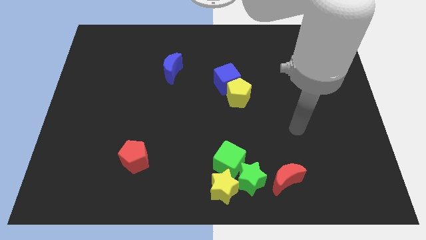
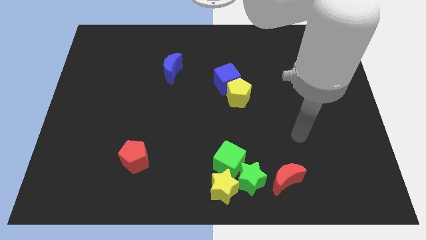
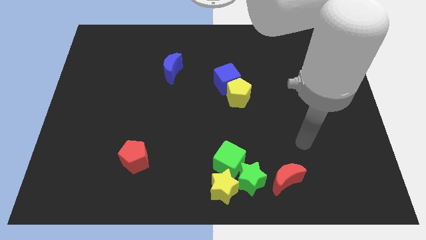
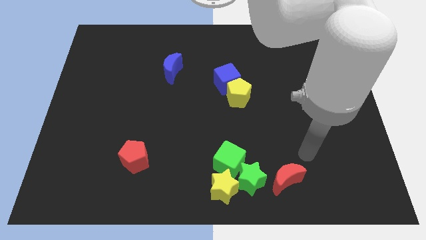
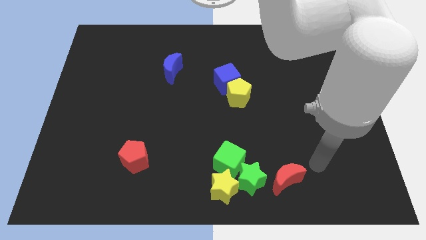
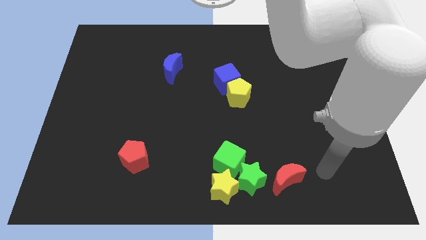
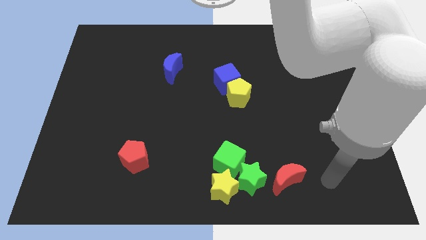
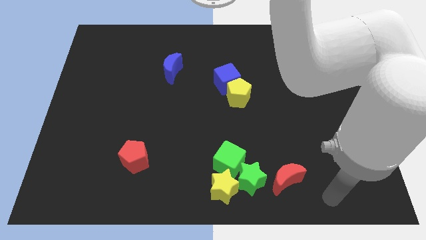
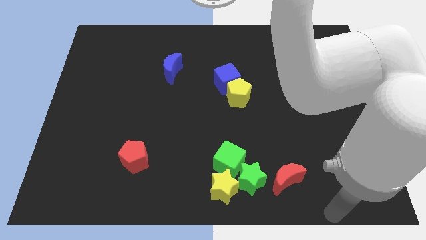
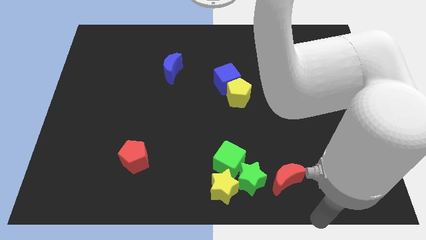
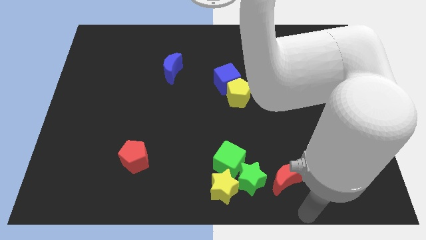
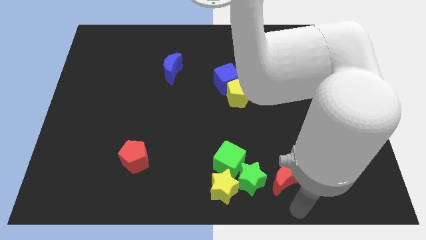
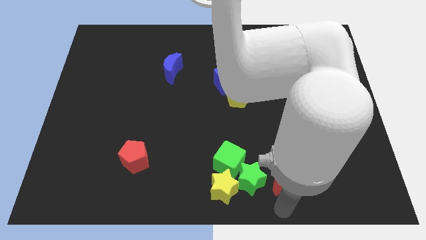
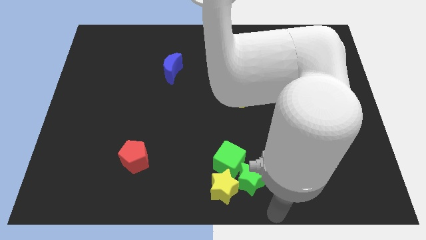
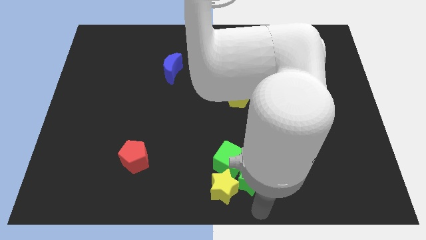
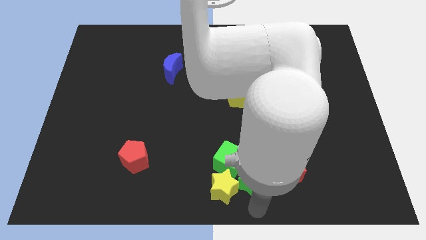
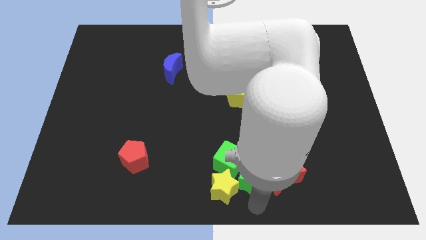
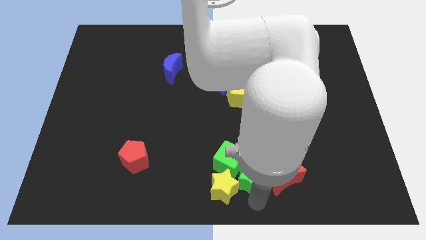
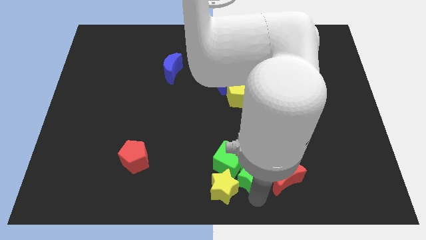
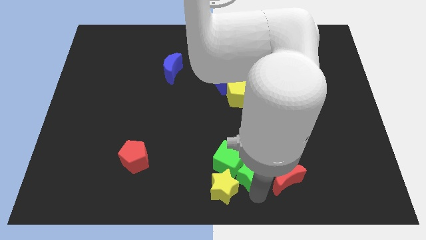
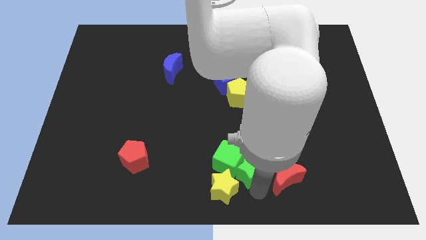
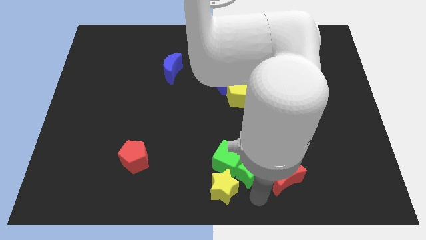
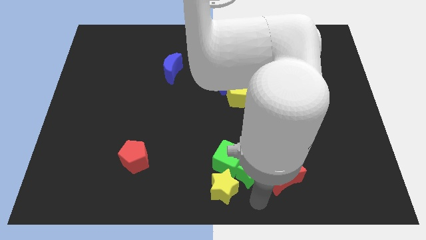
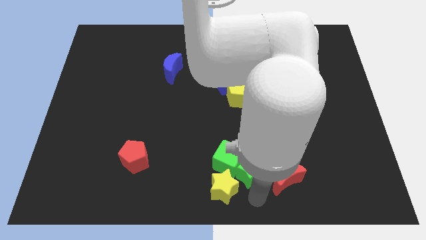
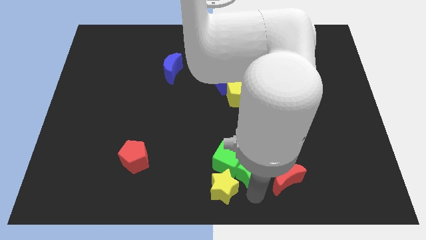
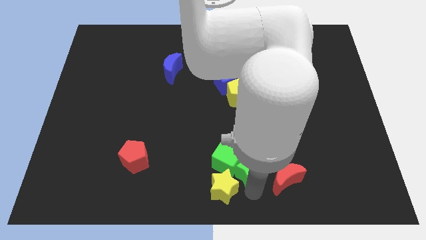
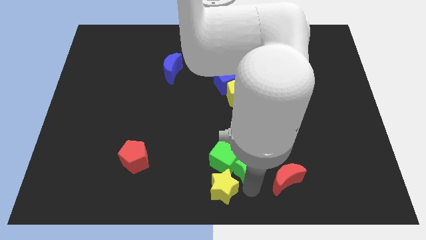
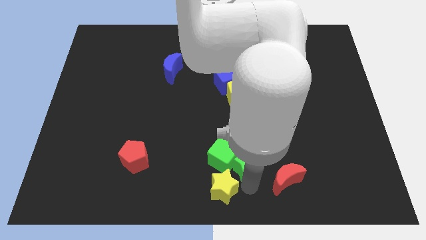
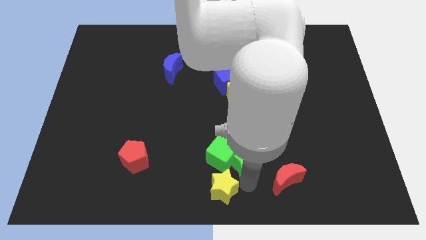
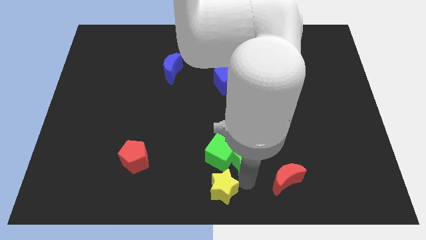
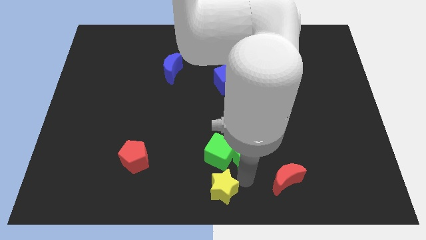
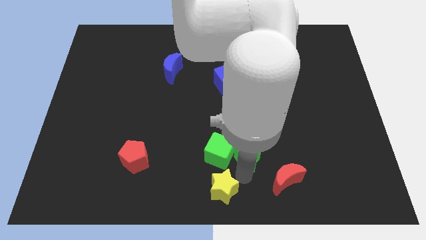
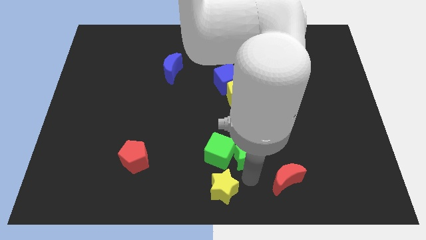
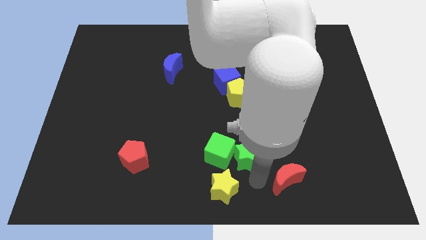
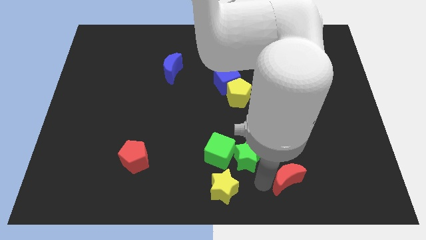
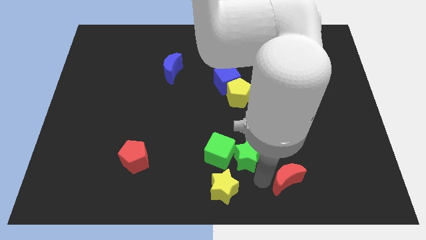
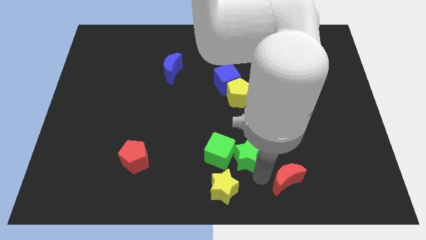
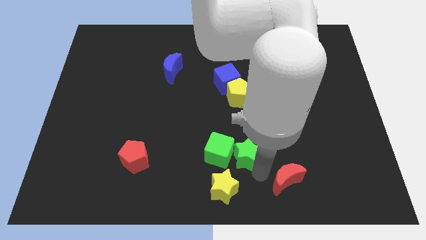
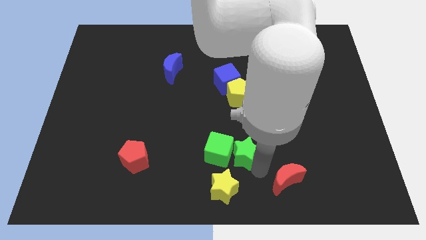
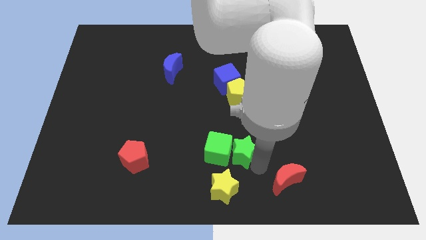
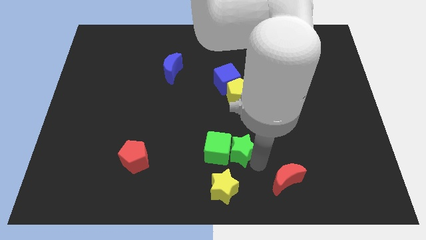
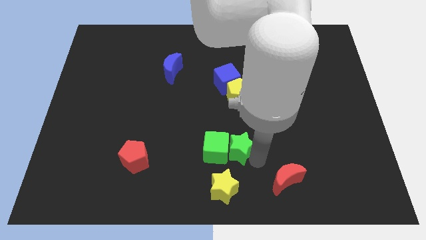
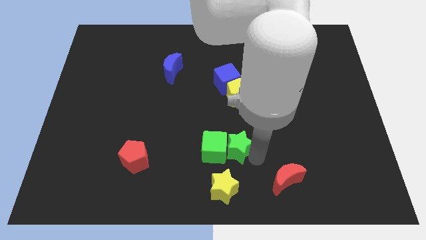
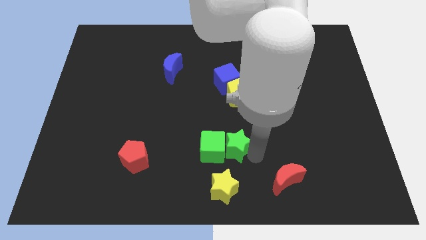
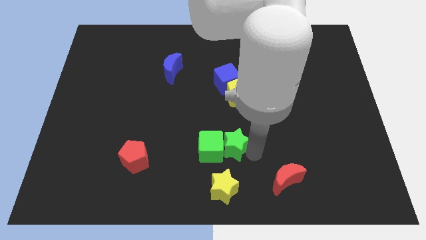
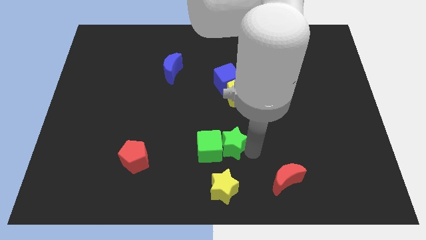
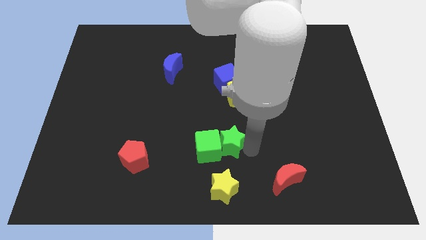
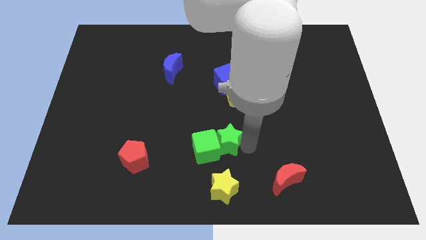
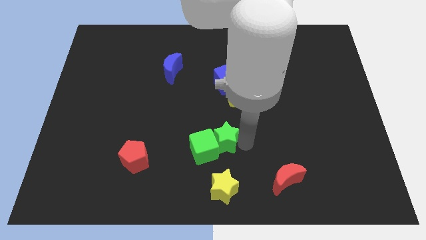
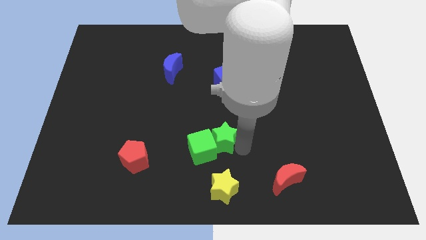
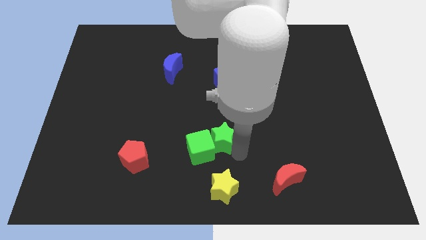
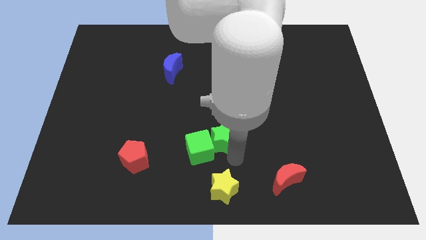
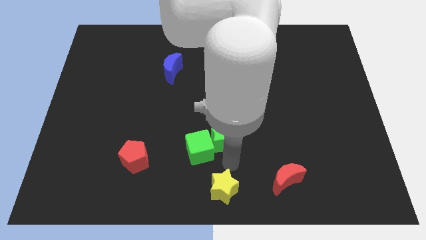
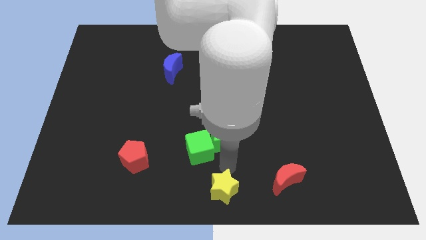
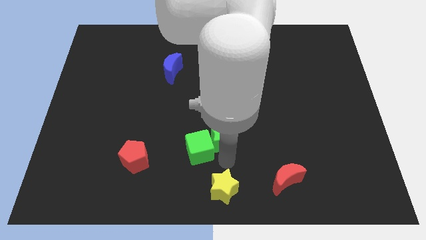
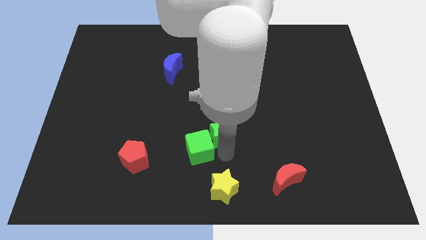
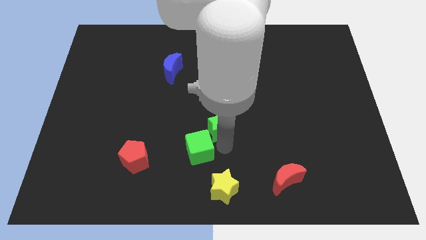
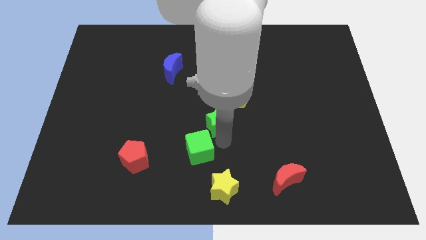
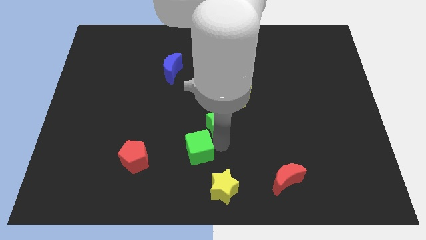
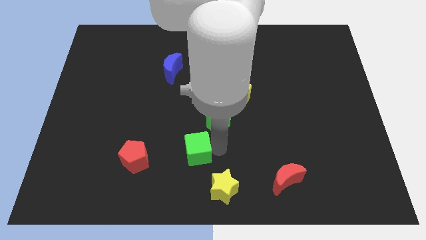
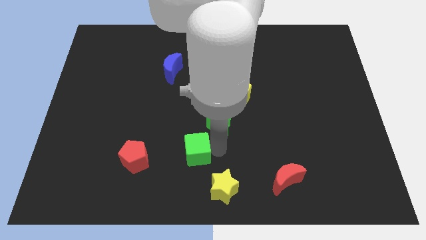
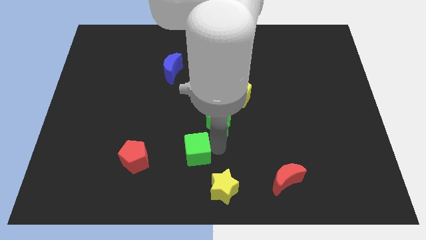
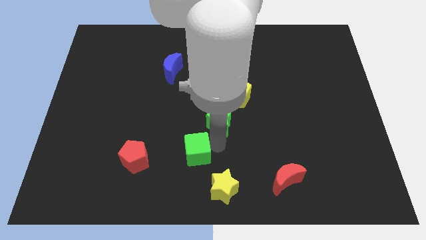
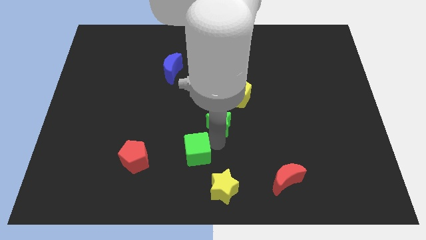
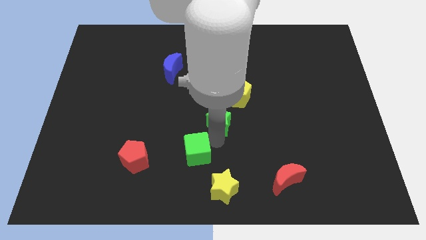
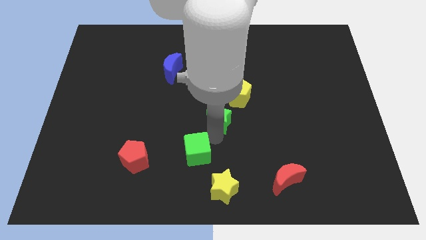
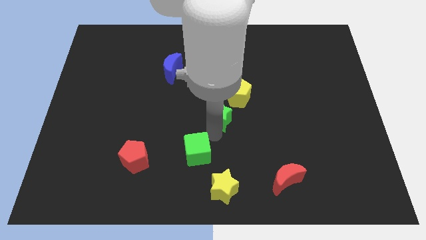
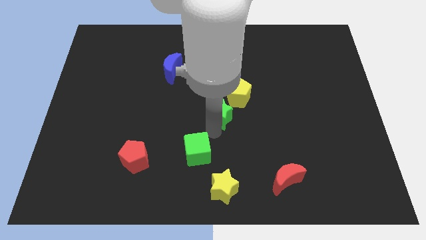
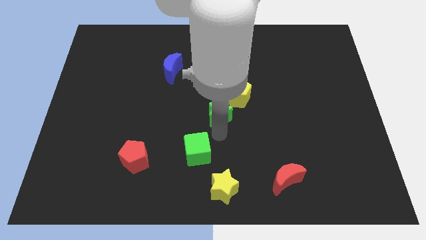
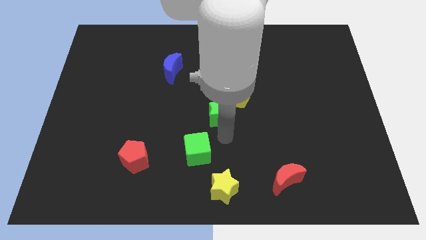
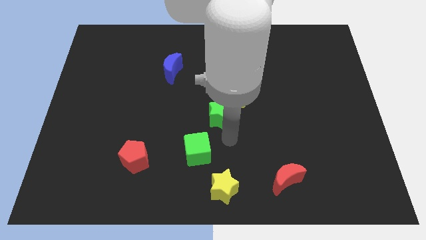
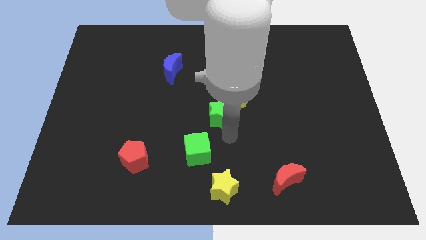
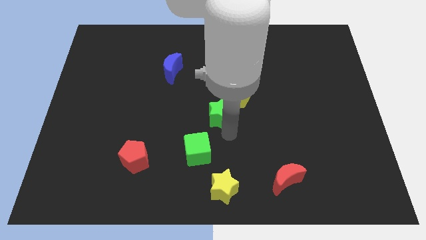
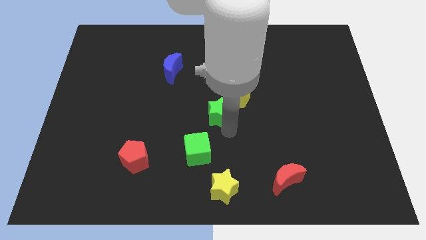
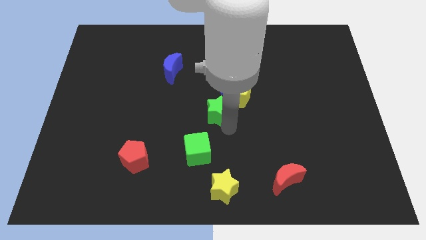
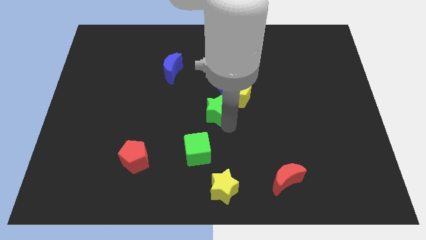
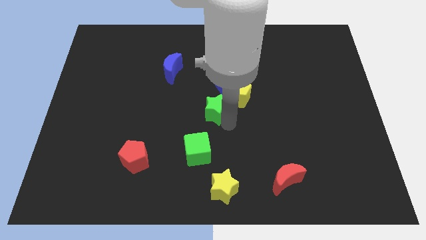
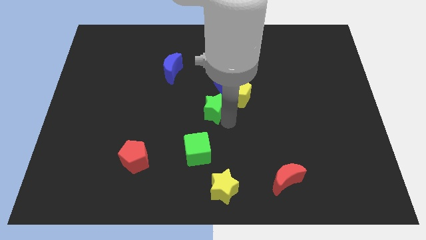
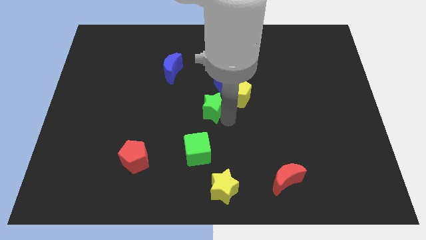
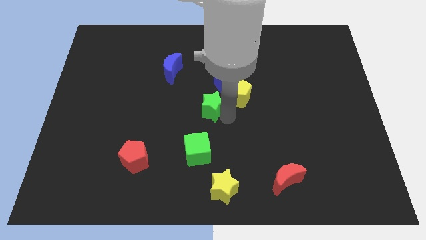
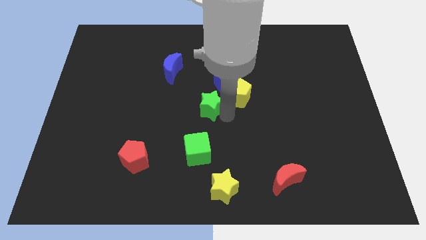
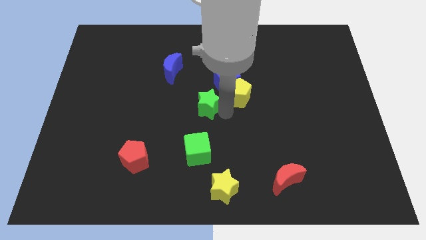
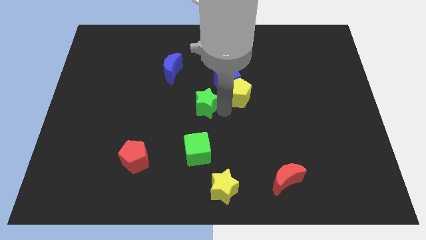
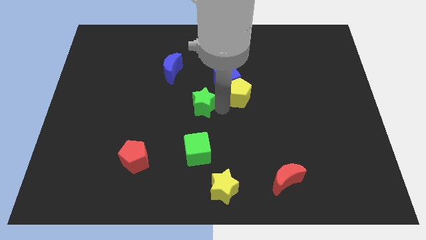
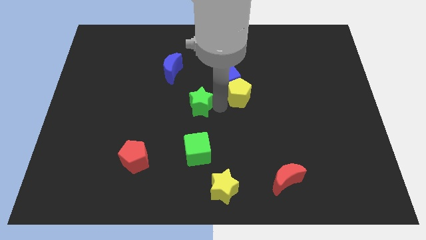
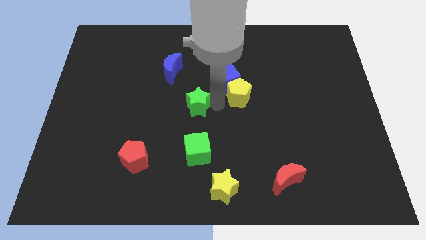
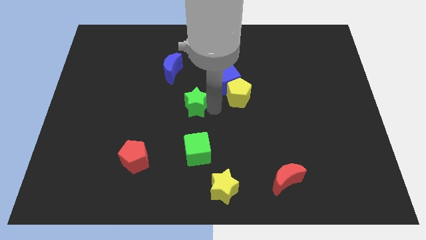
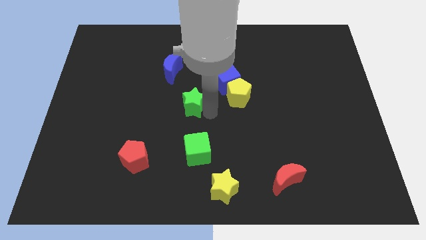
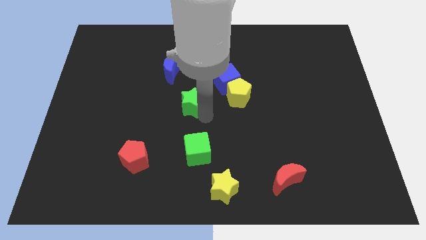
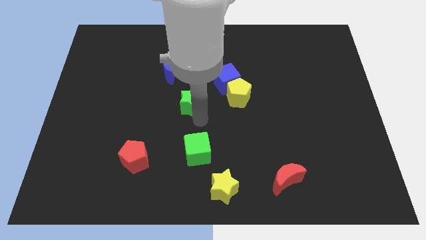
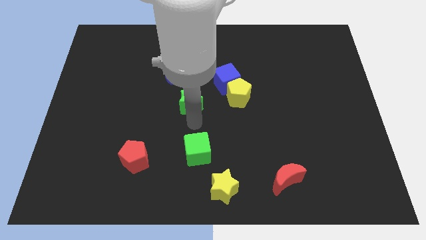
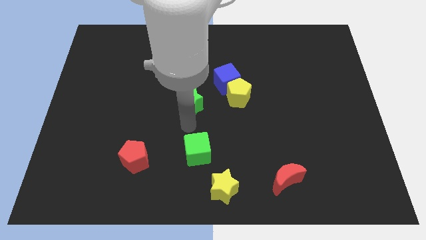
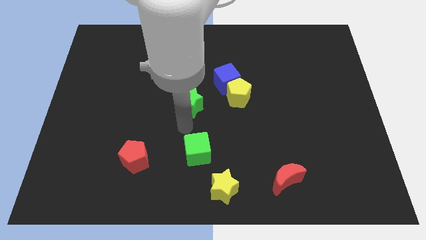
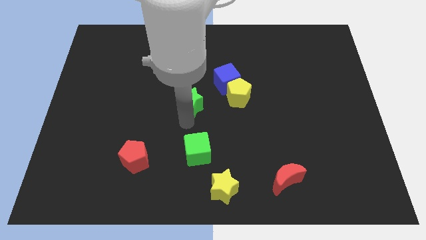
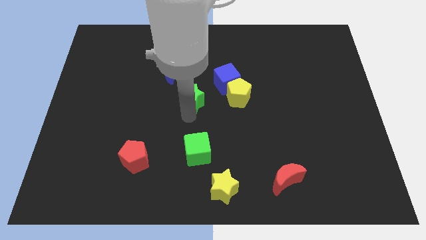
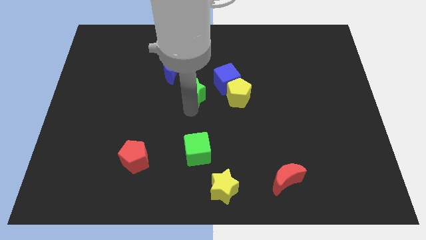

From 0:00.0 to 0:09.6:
move the green star to the left side of the blue cube
